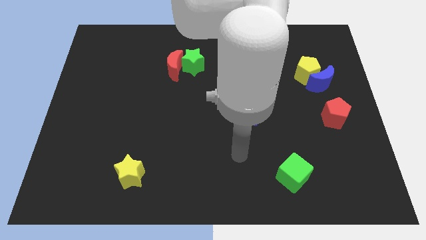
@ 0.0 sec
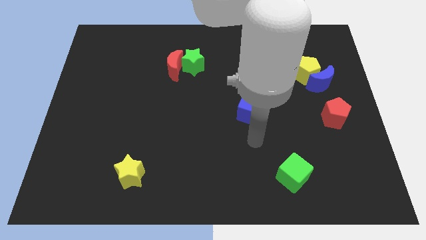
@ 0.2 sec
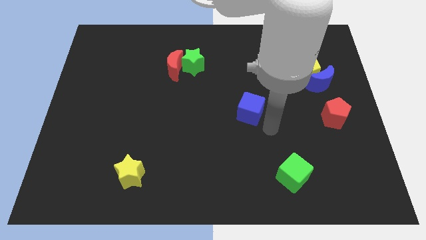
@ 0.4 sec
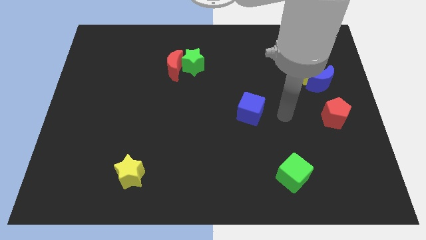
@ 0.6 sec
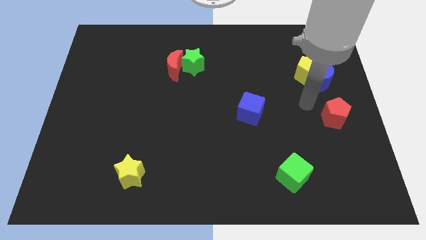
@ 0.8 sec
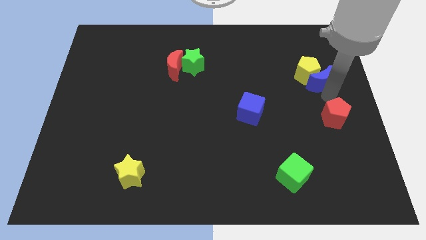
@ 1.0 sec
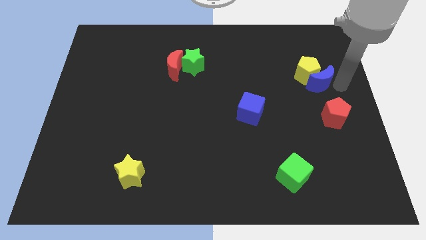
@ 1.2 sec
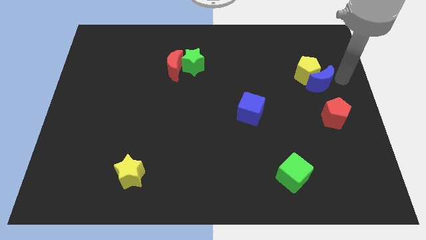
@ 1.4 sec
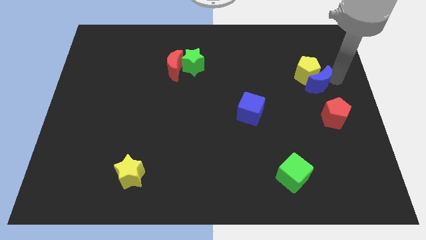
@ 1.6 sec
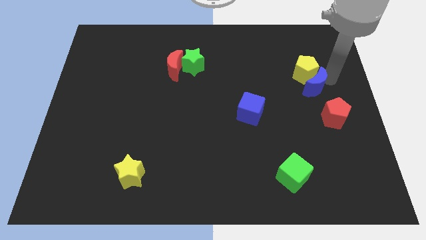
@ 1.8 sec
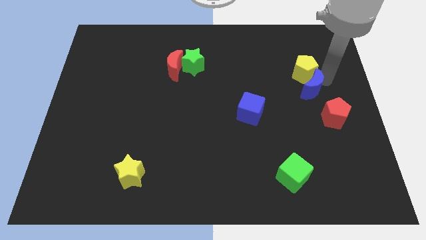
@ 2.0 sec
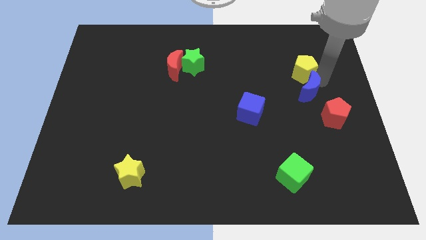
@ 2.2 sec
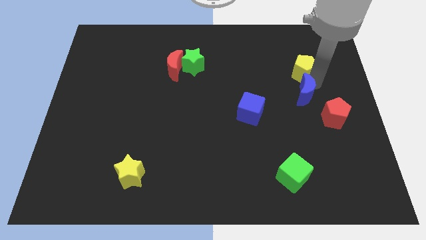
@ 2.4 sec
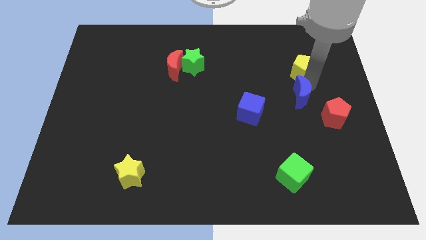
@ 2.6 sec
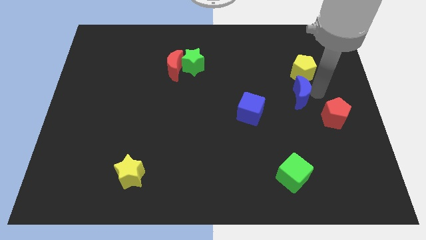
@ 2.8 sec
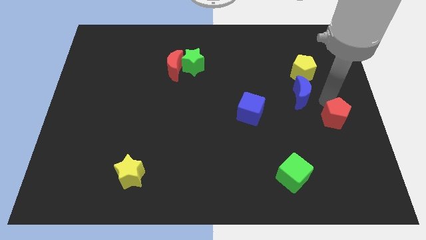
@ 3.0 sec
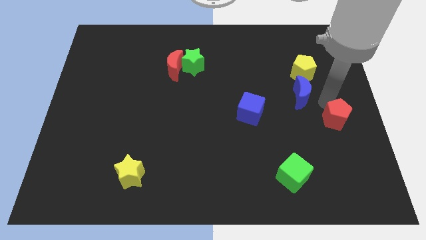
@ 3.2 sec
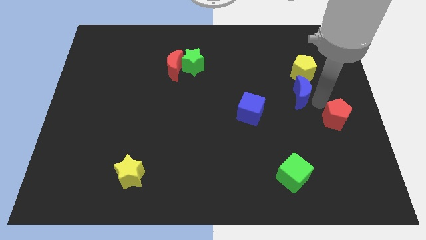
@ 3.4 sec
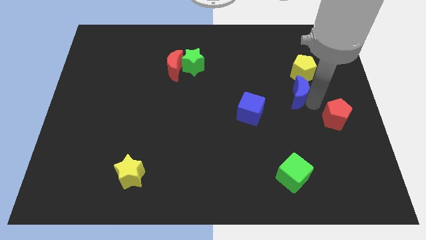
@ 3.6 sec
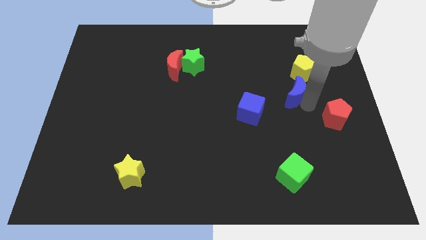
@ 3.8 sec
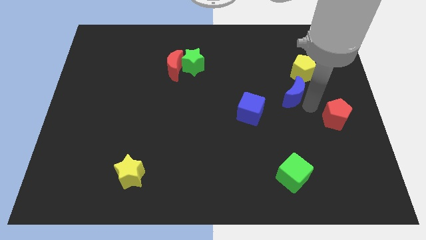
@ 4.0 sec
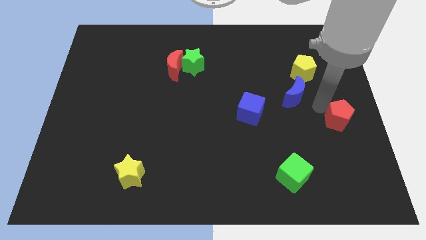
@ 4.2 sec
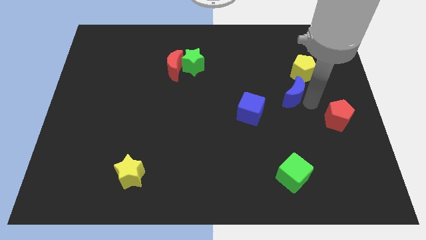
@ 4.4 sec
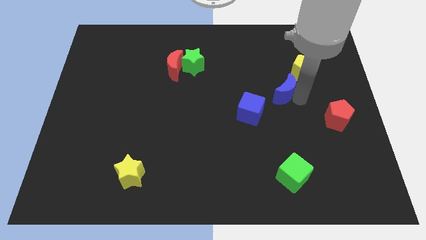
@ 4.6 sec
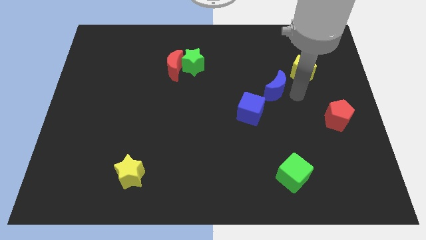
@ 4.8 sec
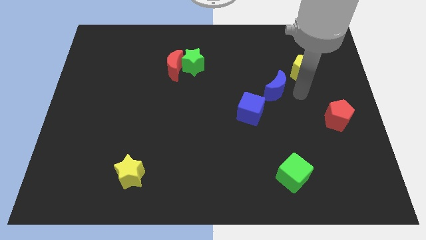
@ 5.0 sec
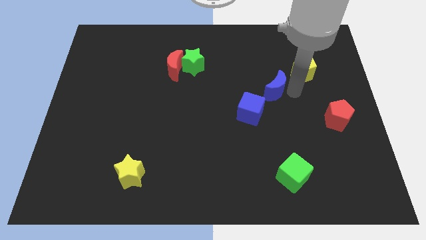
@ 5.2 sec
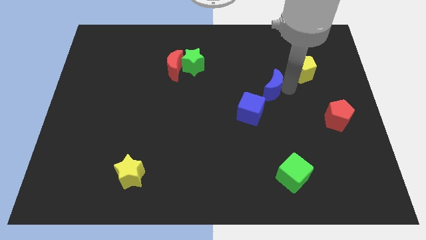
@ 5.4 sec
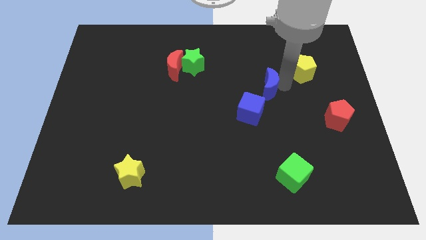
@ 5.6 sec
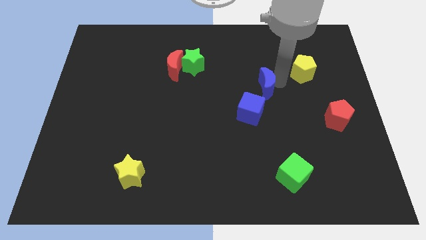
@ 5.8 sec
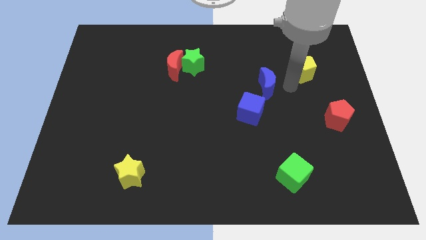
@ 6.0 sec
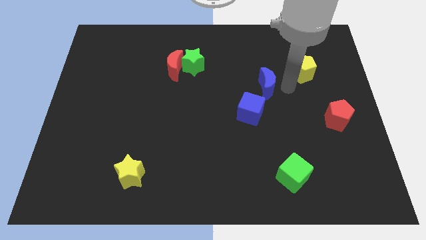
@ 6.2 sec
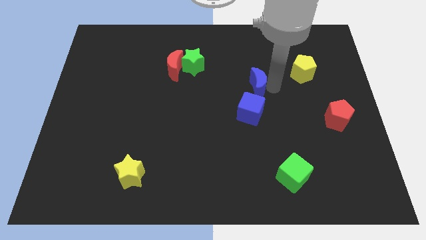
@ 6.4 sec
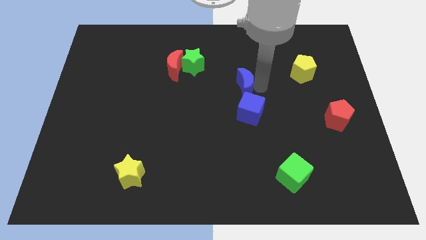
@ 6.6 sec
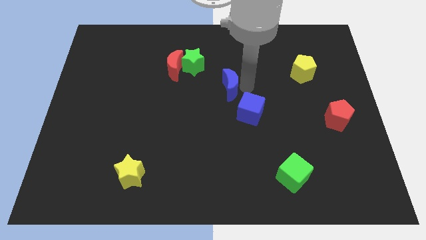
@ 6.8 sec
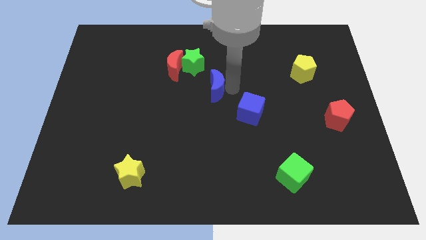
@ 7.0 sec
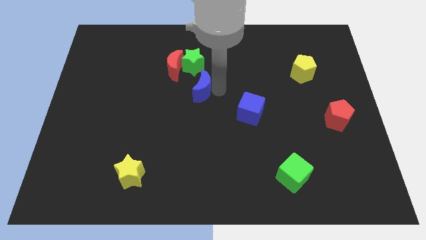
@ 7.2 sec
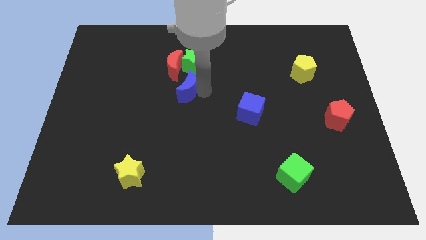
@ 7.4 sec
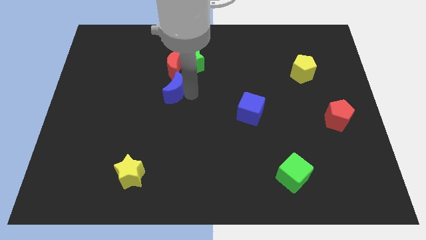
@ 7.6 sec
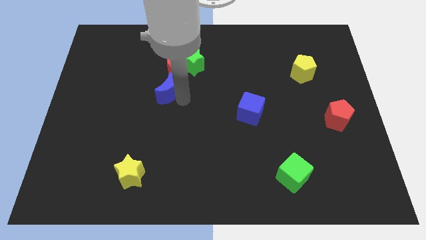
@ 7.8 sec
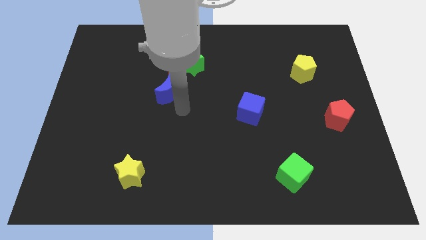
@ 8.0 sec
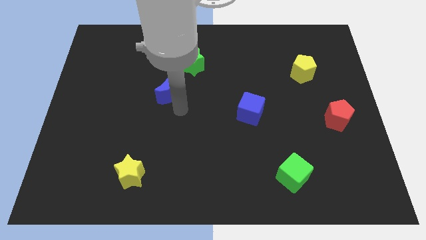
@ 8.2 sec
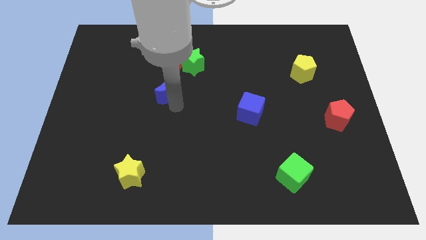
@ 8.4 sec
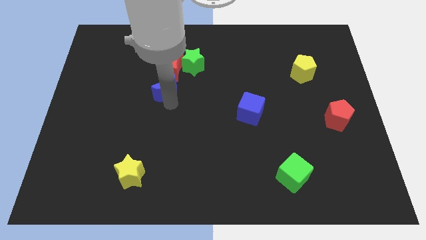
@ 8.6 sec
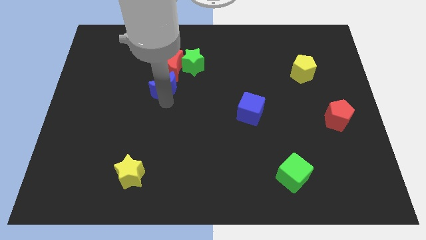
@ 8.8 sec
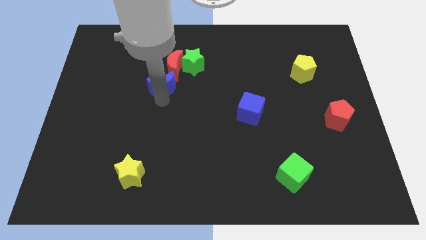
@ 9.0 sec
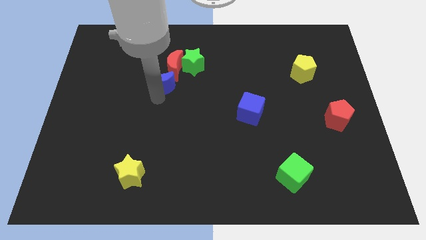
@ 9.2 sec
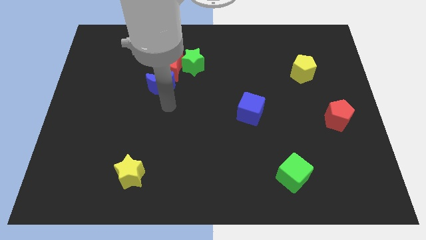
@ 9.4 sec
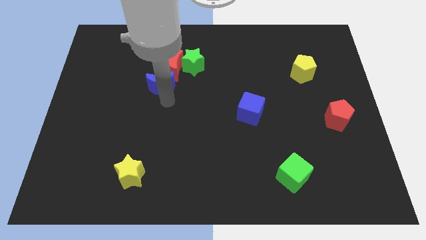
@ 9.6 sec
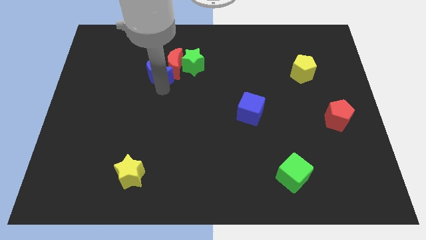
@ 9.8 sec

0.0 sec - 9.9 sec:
move the blue moon left of the green star

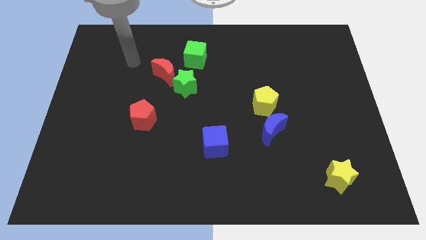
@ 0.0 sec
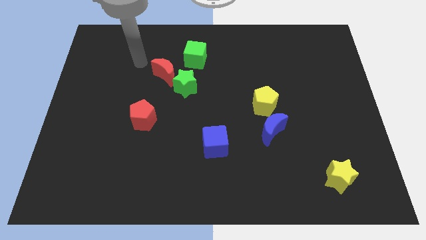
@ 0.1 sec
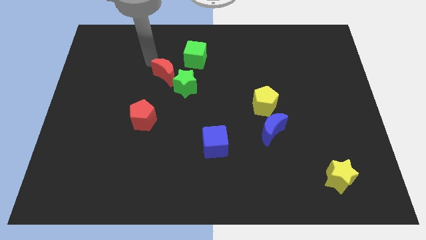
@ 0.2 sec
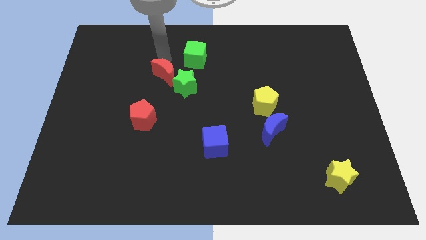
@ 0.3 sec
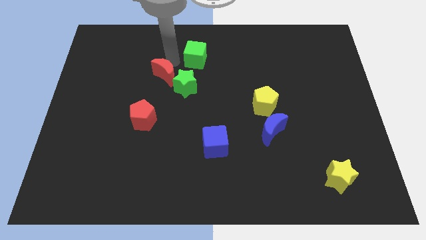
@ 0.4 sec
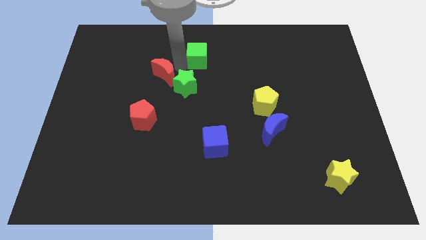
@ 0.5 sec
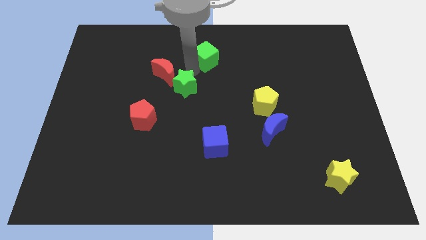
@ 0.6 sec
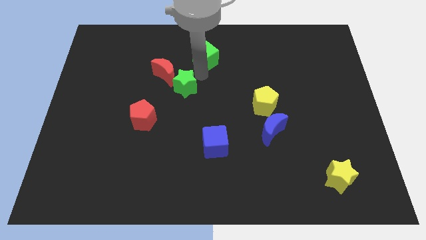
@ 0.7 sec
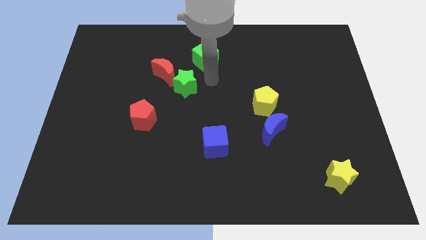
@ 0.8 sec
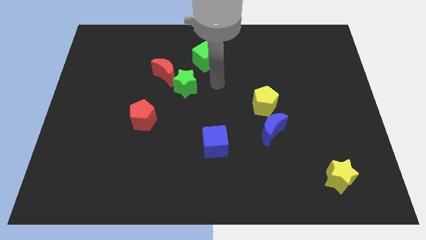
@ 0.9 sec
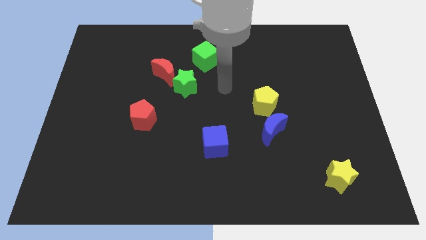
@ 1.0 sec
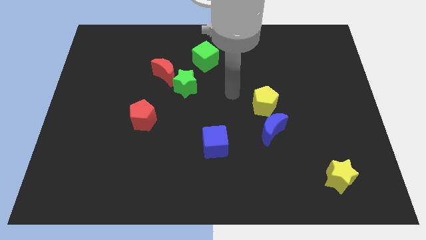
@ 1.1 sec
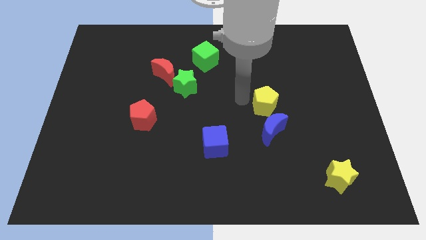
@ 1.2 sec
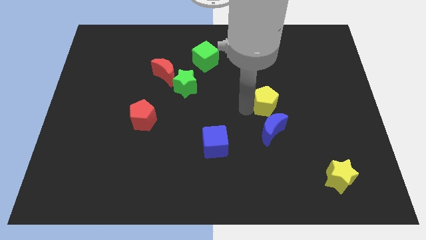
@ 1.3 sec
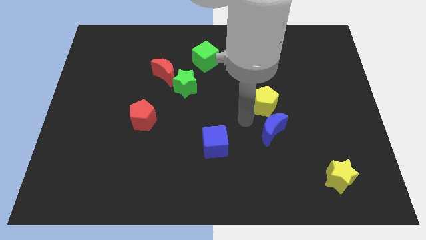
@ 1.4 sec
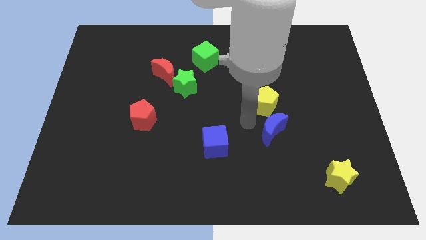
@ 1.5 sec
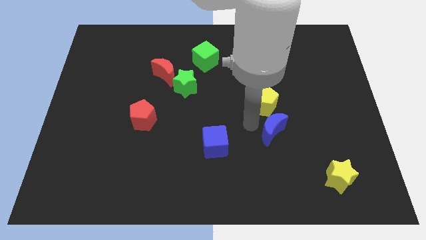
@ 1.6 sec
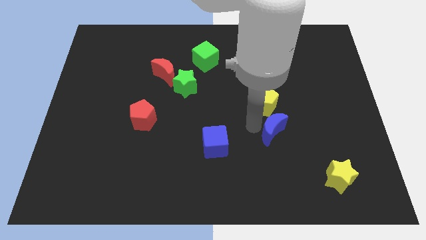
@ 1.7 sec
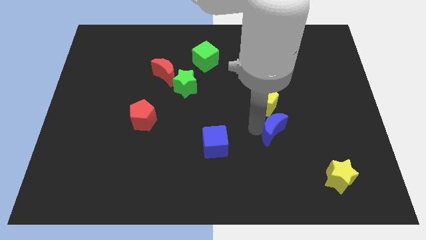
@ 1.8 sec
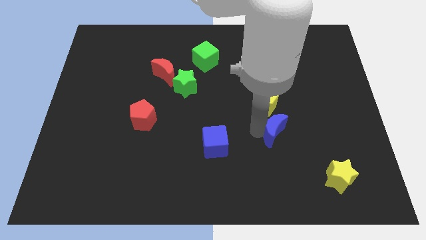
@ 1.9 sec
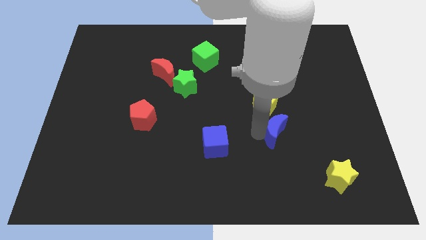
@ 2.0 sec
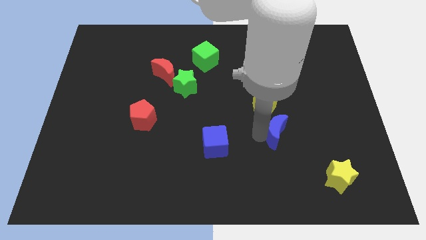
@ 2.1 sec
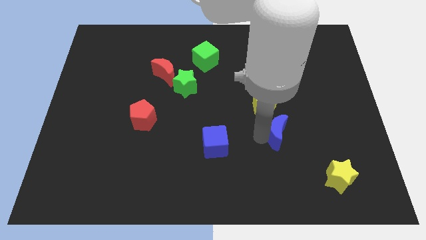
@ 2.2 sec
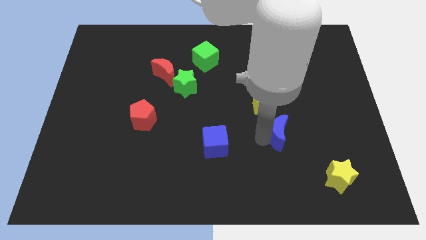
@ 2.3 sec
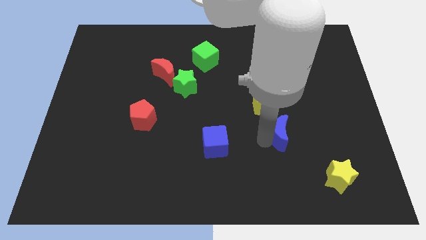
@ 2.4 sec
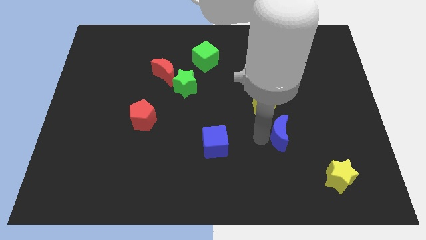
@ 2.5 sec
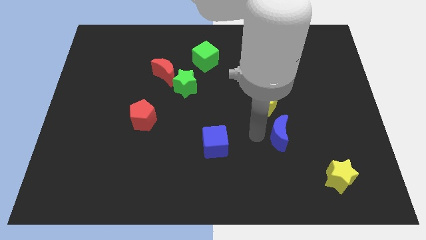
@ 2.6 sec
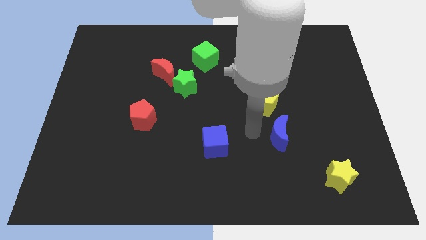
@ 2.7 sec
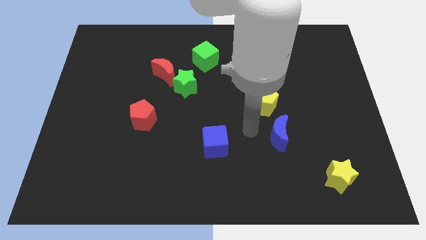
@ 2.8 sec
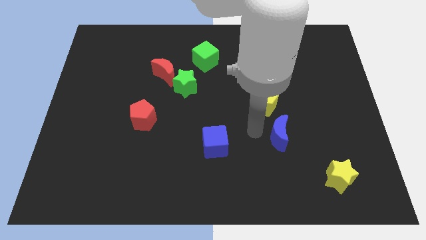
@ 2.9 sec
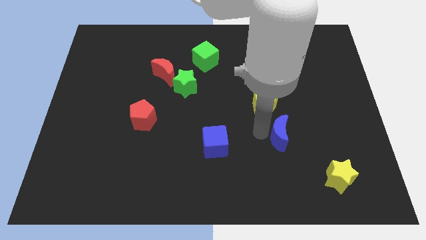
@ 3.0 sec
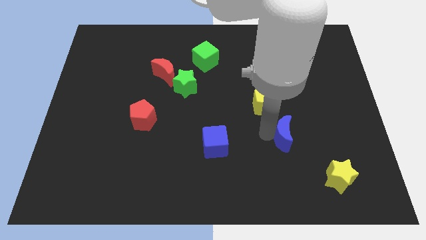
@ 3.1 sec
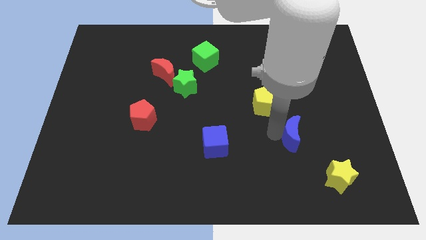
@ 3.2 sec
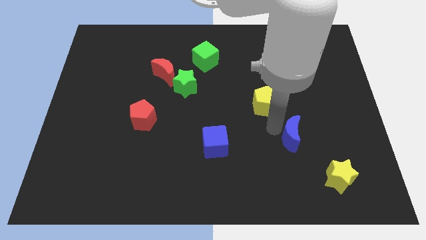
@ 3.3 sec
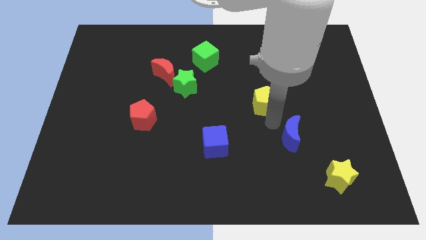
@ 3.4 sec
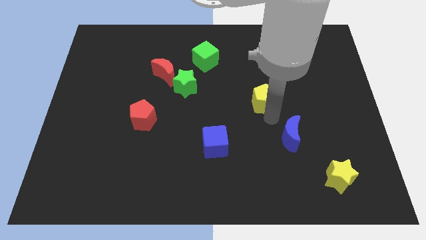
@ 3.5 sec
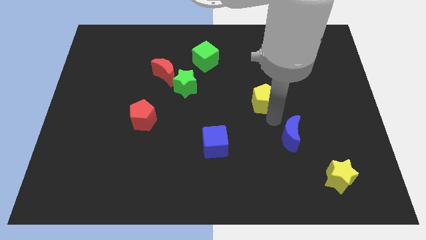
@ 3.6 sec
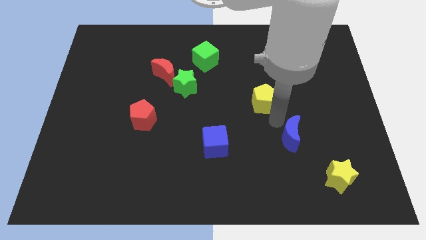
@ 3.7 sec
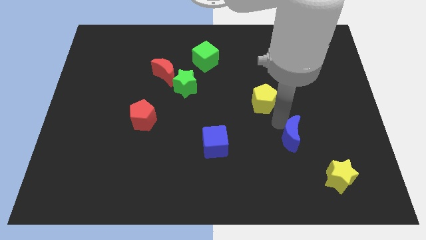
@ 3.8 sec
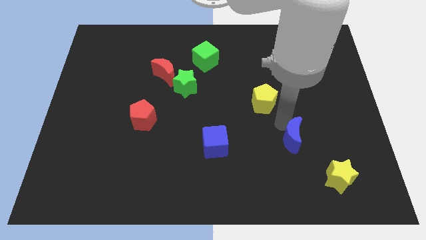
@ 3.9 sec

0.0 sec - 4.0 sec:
move the blue moon diagonally up and to the left of the yellow star
